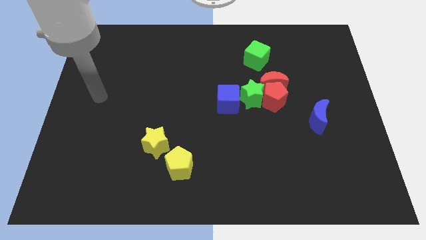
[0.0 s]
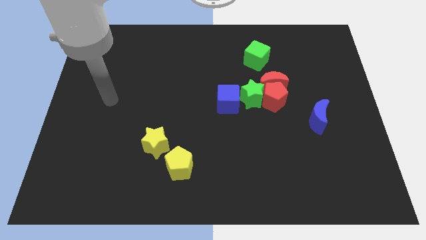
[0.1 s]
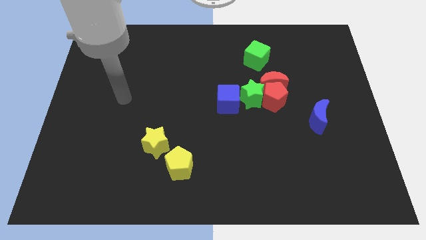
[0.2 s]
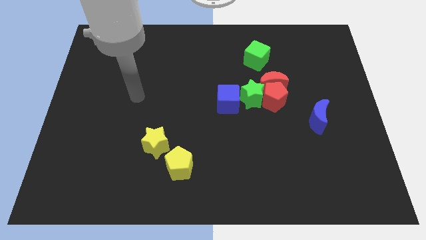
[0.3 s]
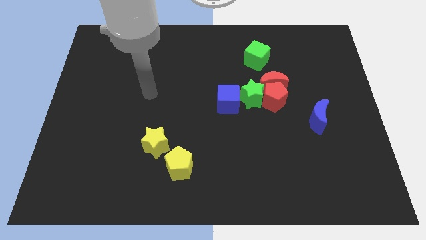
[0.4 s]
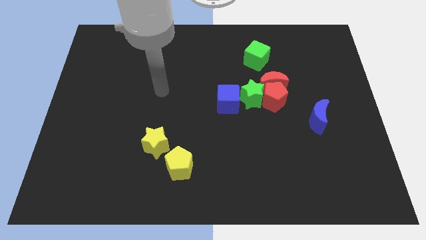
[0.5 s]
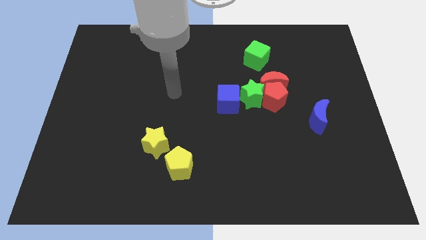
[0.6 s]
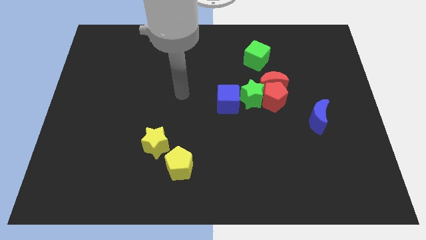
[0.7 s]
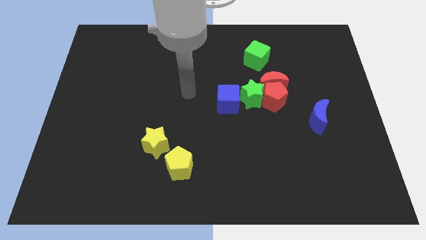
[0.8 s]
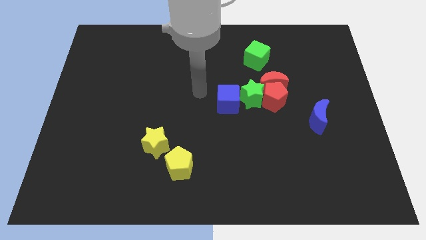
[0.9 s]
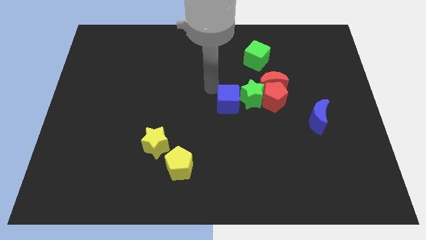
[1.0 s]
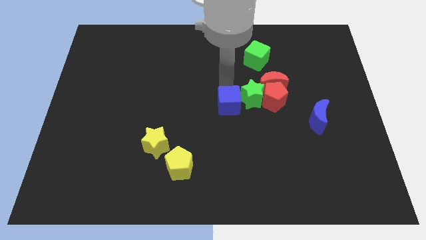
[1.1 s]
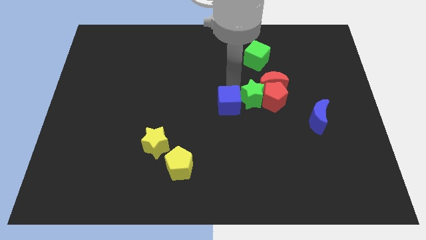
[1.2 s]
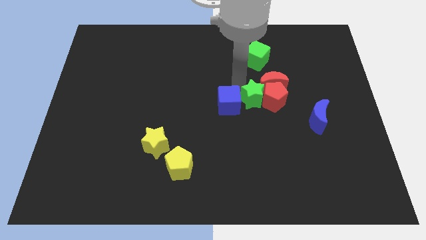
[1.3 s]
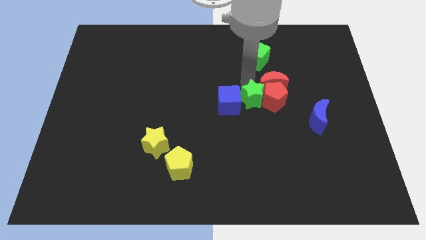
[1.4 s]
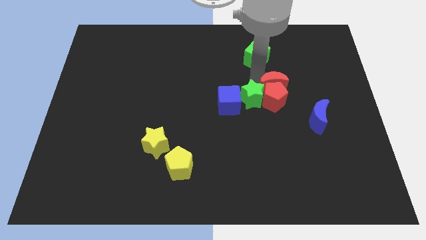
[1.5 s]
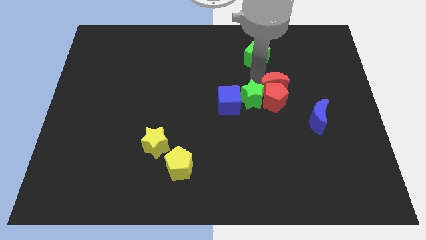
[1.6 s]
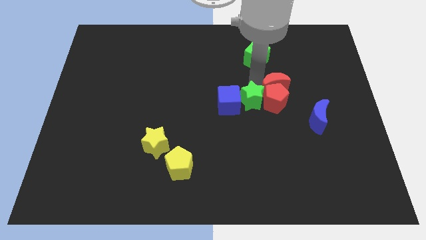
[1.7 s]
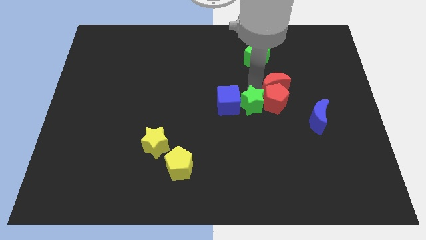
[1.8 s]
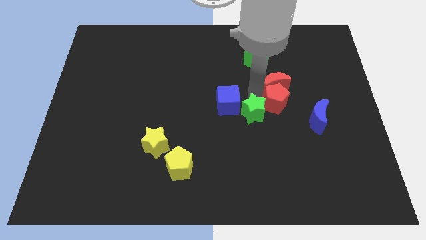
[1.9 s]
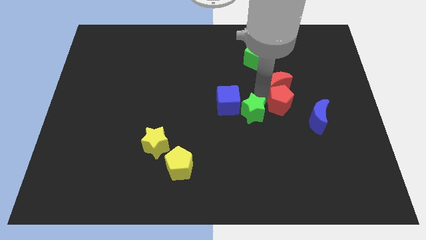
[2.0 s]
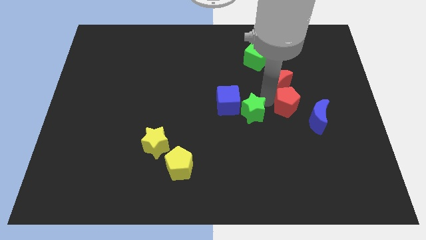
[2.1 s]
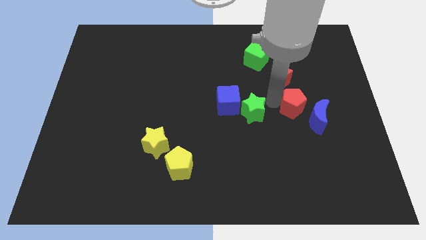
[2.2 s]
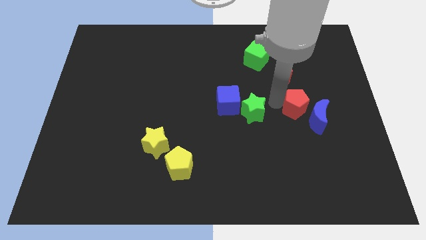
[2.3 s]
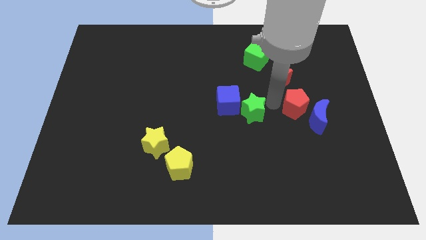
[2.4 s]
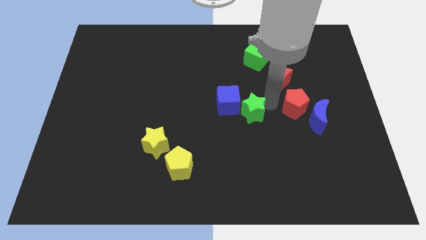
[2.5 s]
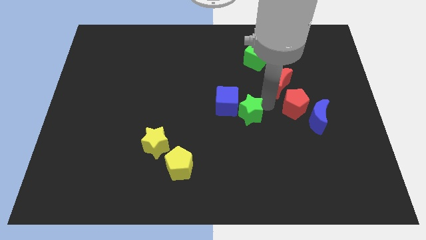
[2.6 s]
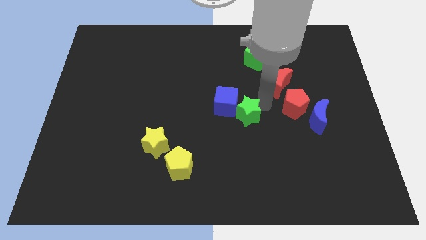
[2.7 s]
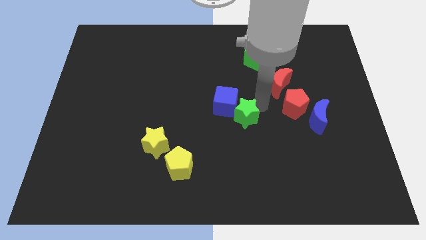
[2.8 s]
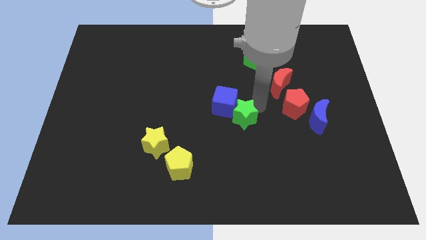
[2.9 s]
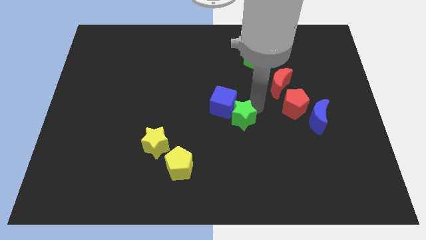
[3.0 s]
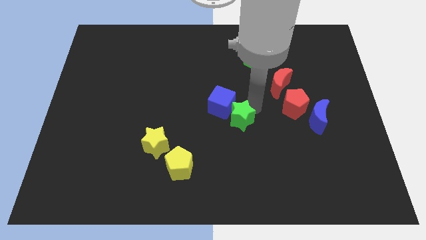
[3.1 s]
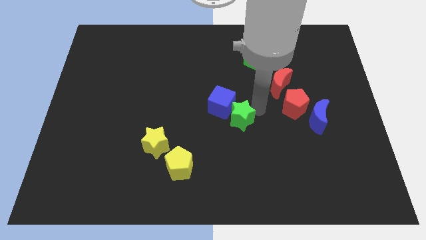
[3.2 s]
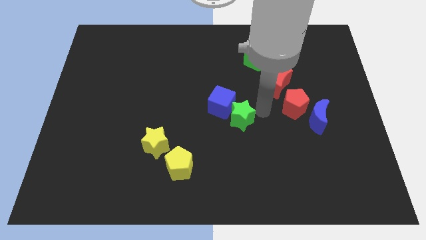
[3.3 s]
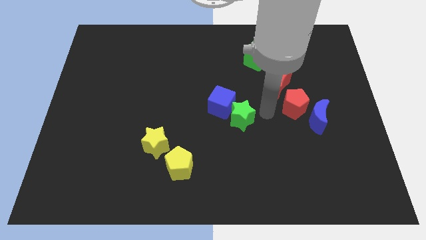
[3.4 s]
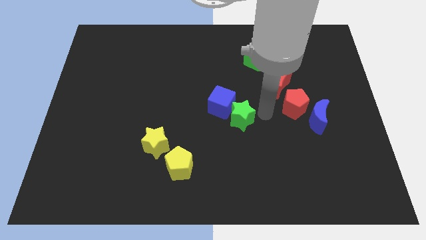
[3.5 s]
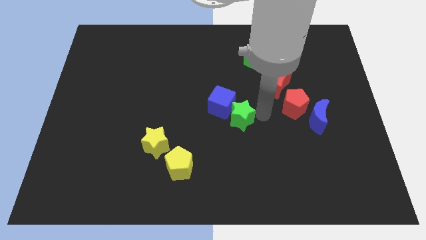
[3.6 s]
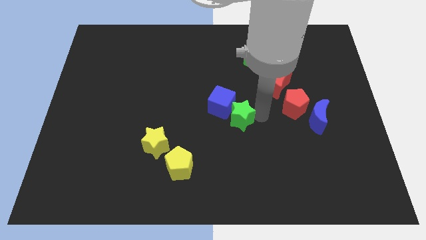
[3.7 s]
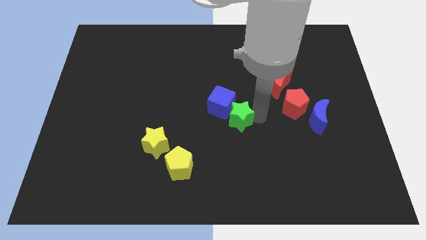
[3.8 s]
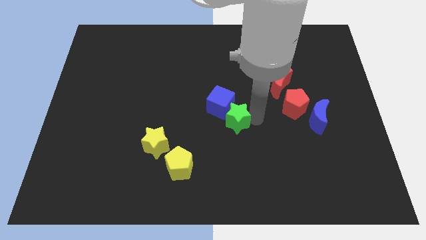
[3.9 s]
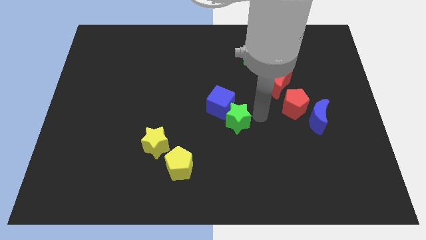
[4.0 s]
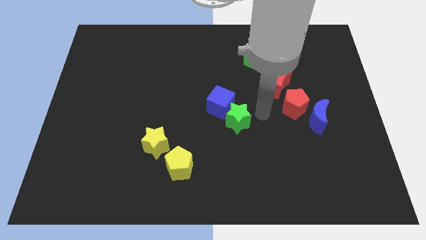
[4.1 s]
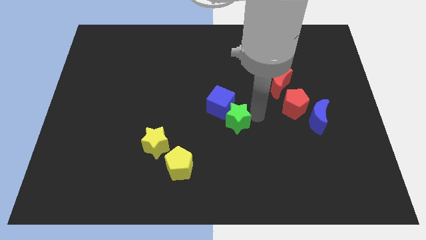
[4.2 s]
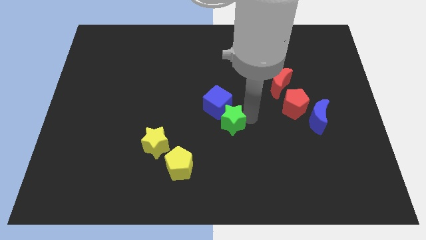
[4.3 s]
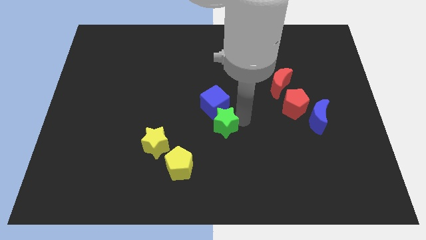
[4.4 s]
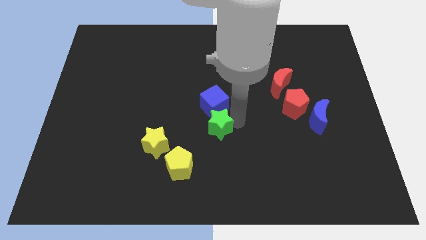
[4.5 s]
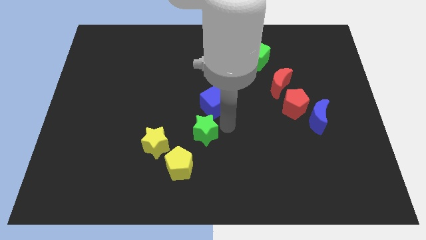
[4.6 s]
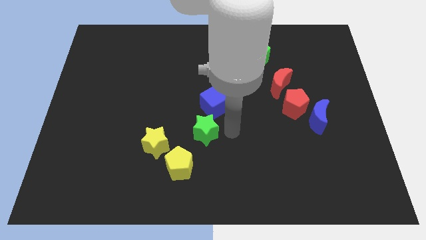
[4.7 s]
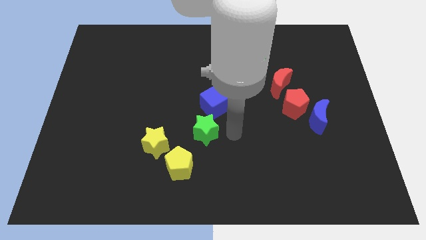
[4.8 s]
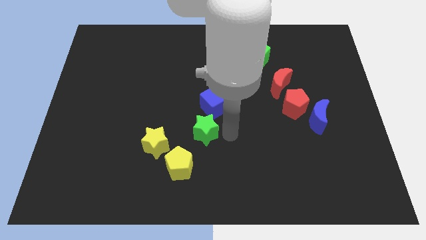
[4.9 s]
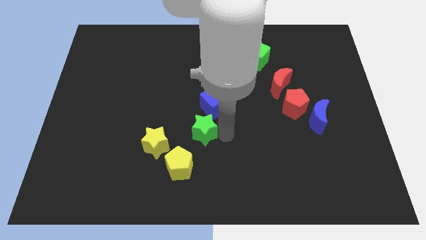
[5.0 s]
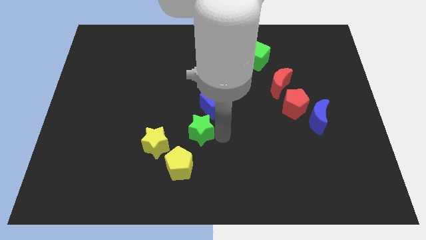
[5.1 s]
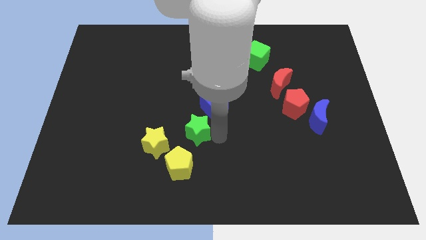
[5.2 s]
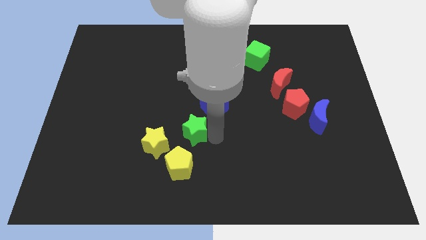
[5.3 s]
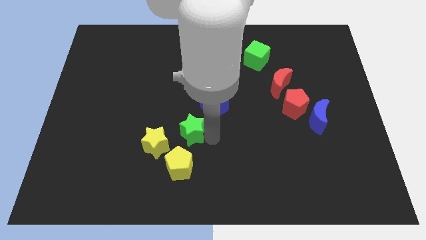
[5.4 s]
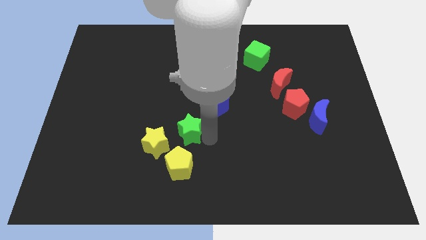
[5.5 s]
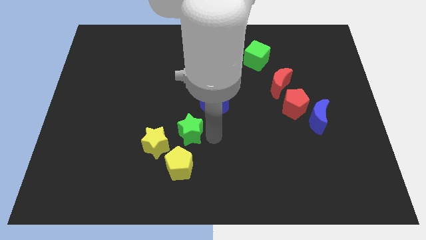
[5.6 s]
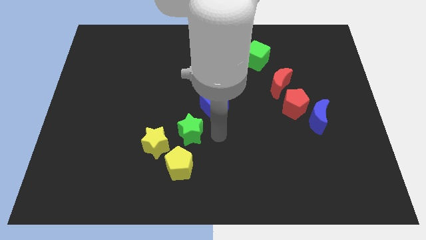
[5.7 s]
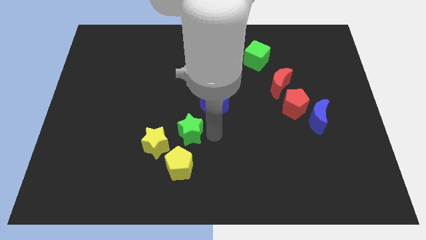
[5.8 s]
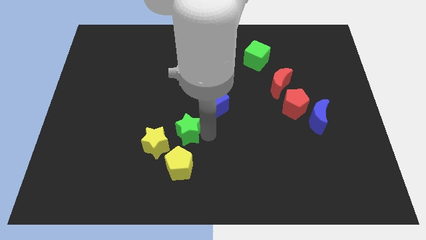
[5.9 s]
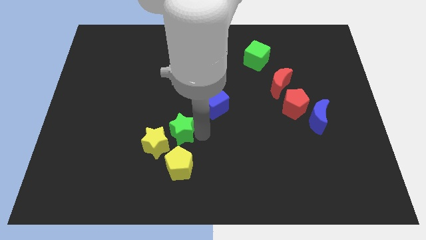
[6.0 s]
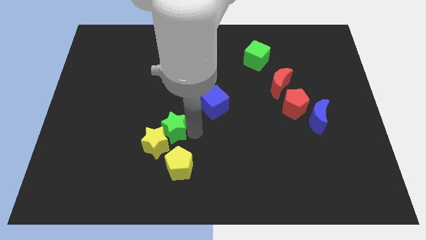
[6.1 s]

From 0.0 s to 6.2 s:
move the green star next to the yellow star

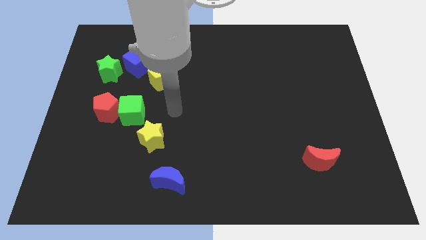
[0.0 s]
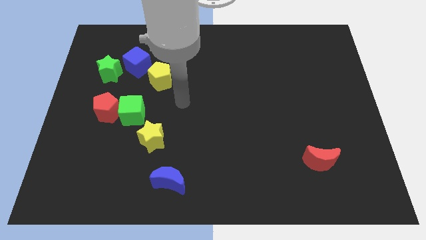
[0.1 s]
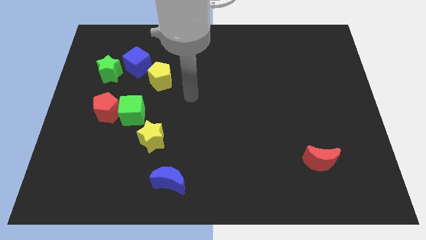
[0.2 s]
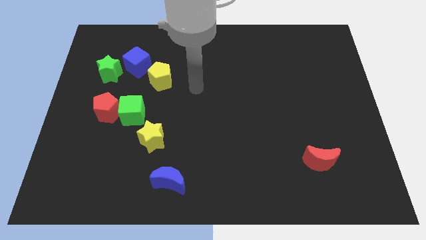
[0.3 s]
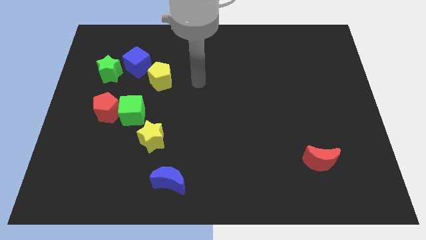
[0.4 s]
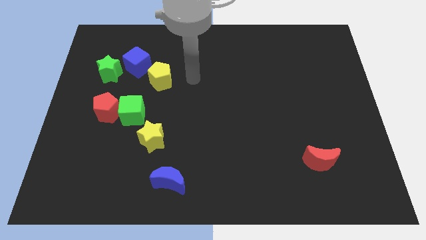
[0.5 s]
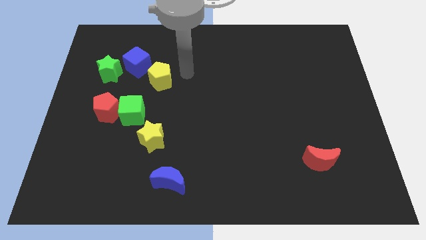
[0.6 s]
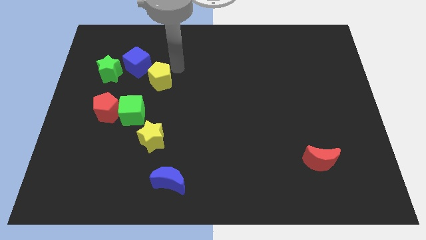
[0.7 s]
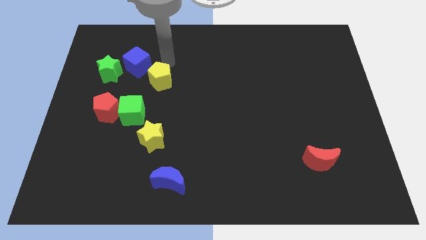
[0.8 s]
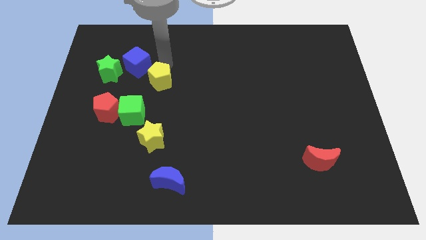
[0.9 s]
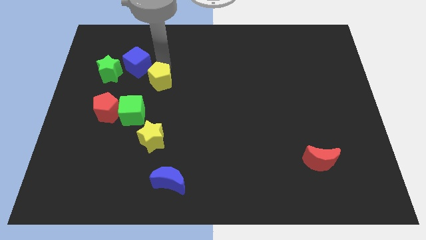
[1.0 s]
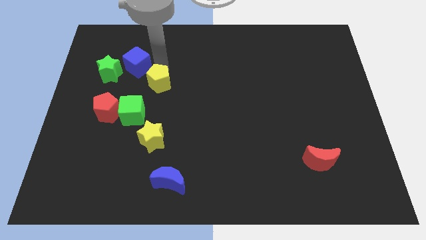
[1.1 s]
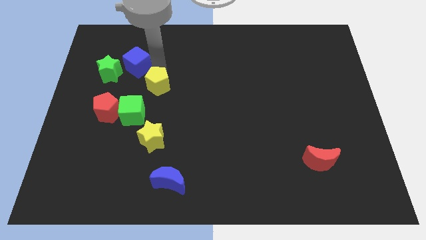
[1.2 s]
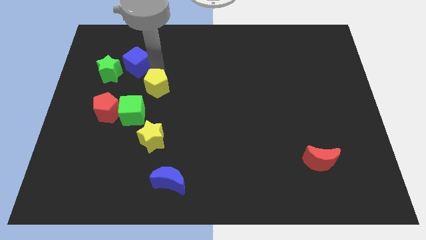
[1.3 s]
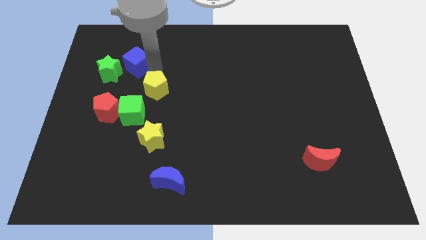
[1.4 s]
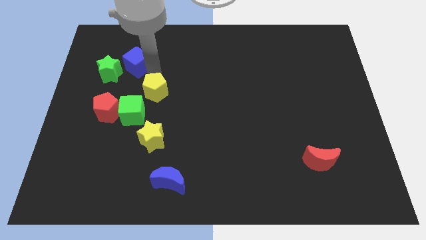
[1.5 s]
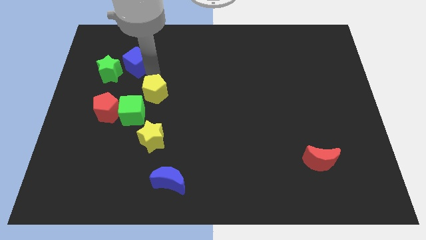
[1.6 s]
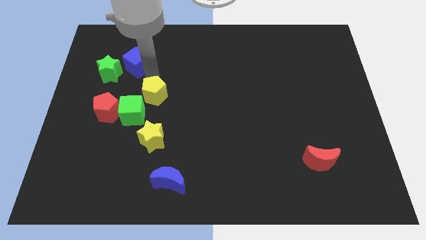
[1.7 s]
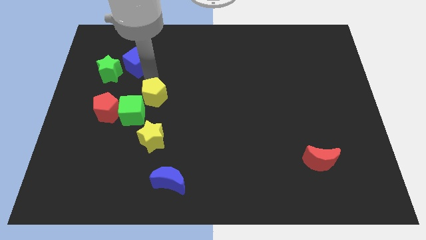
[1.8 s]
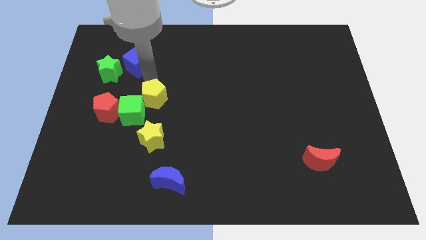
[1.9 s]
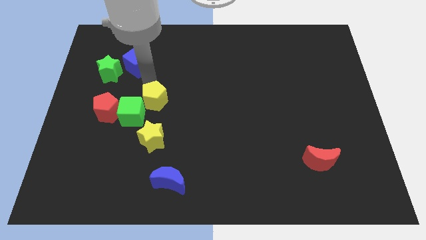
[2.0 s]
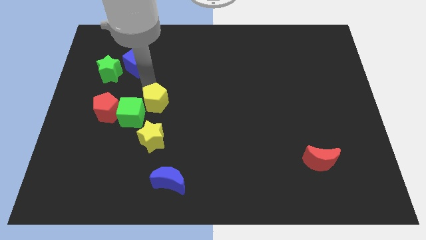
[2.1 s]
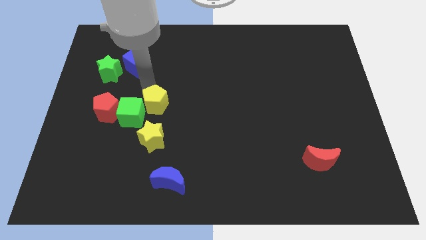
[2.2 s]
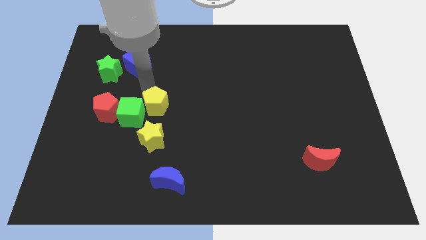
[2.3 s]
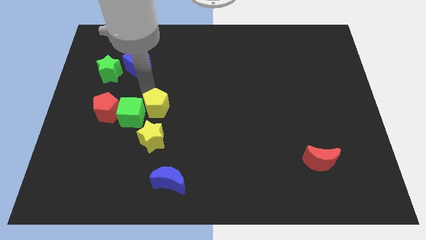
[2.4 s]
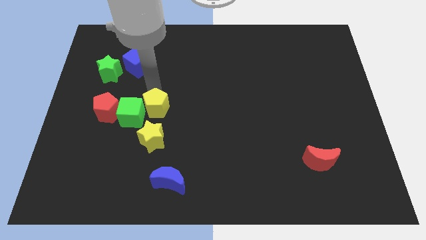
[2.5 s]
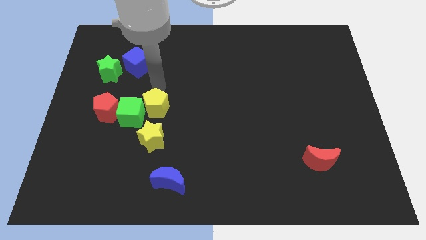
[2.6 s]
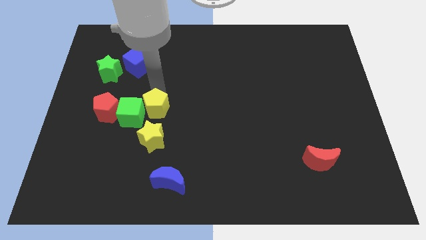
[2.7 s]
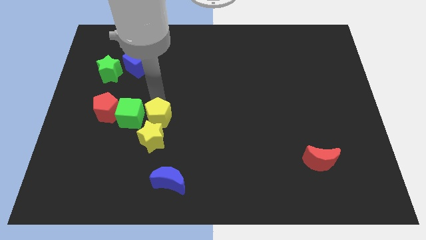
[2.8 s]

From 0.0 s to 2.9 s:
move the yellow pentagon to the yellow star
